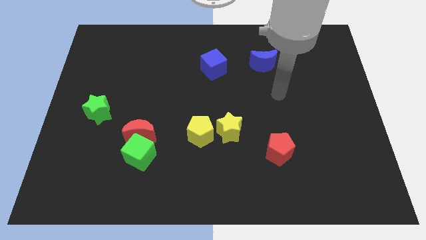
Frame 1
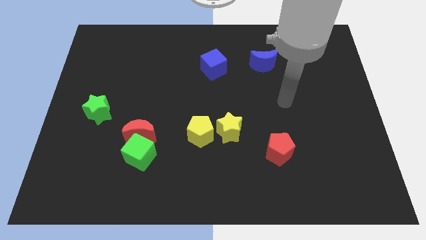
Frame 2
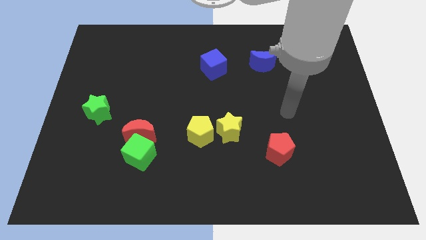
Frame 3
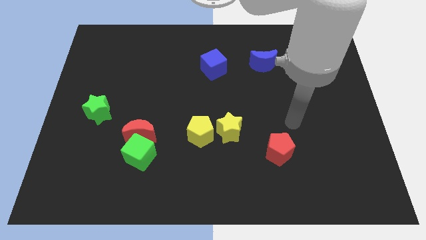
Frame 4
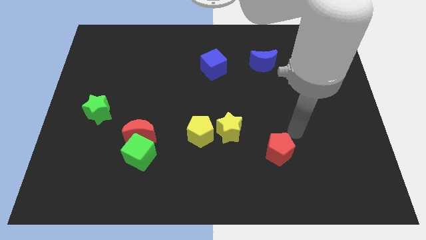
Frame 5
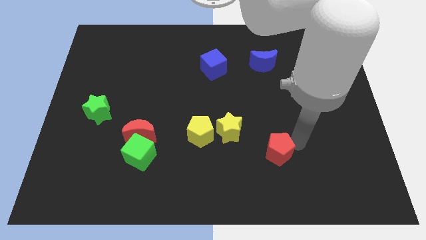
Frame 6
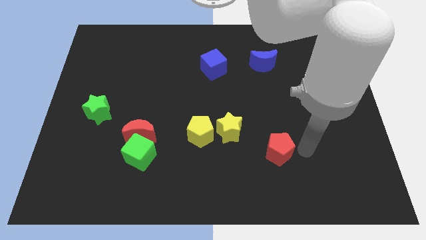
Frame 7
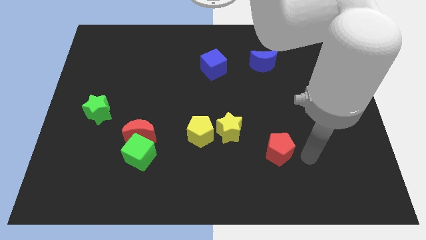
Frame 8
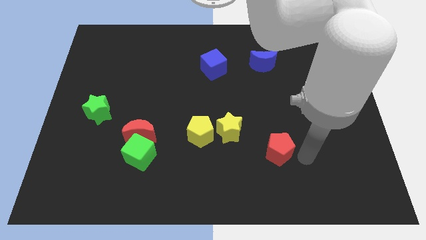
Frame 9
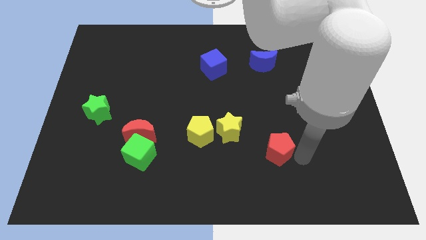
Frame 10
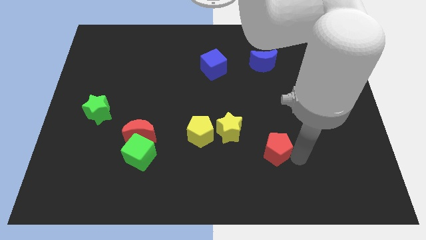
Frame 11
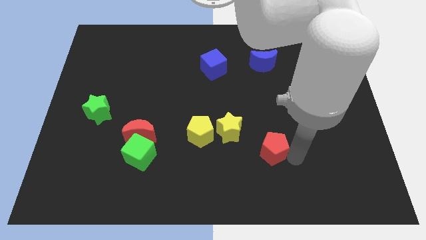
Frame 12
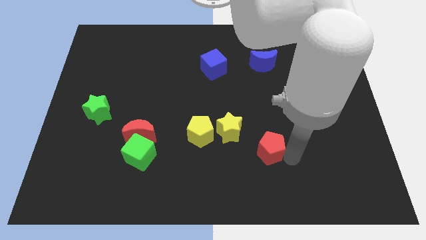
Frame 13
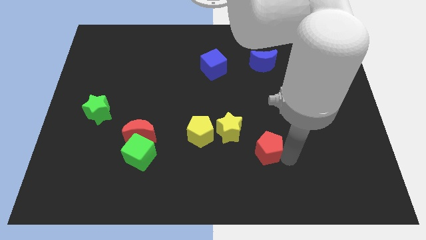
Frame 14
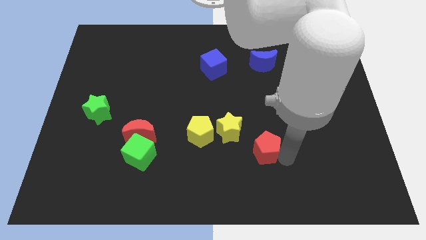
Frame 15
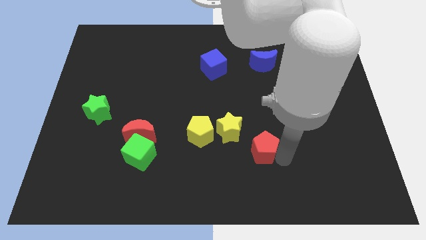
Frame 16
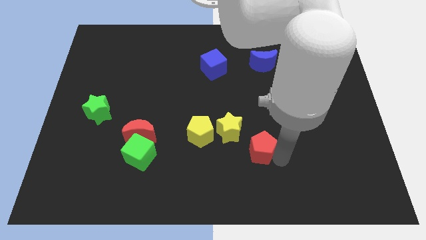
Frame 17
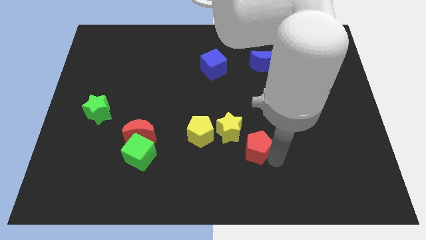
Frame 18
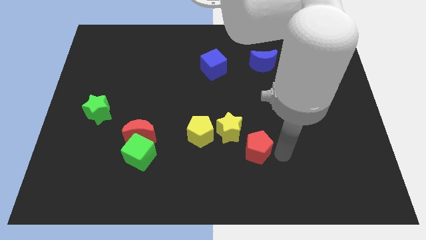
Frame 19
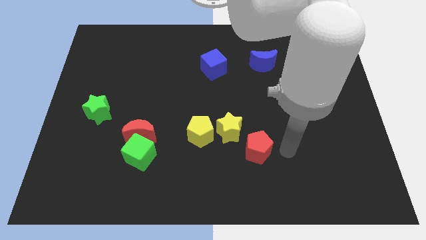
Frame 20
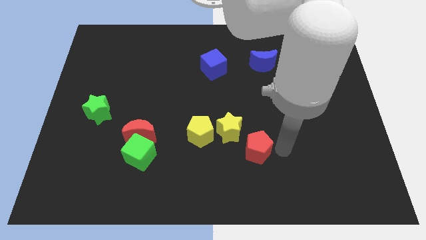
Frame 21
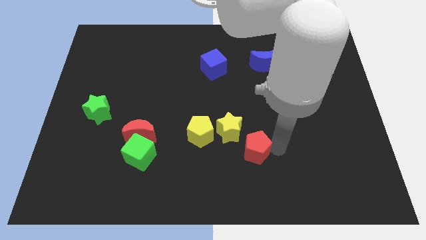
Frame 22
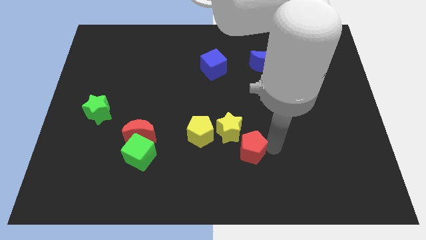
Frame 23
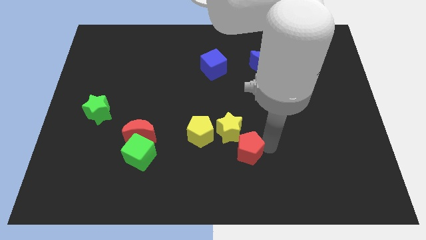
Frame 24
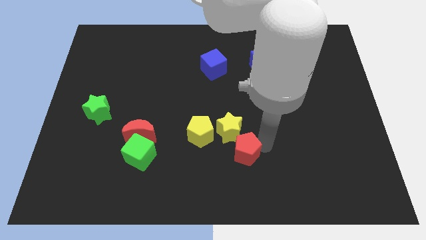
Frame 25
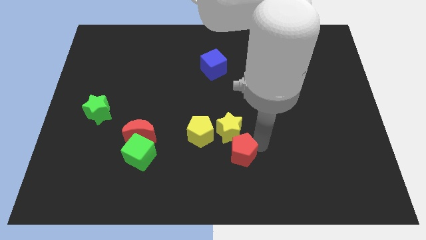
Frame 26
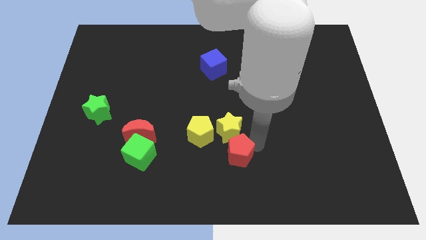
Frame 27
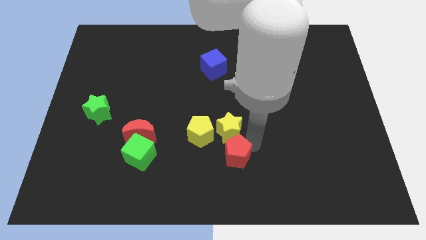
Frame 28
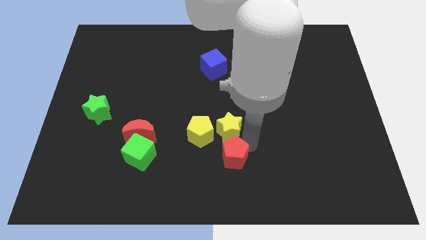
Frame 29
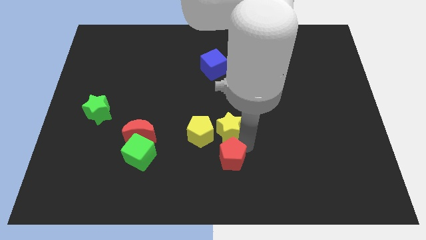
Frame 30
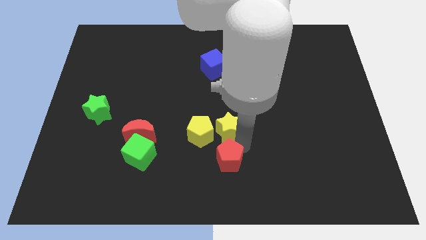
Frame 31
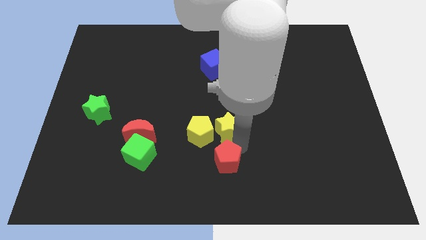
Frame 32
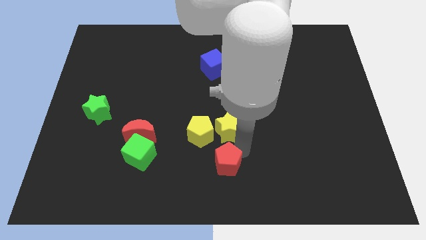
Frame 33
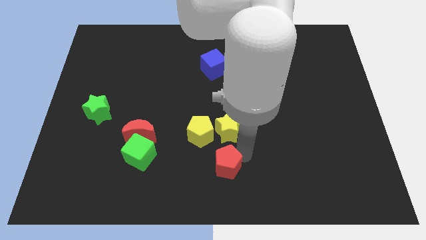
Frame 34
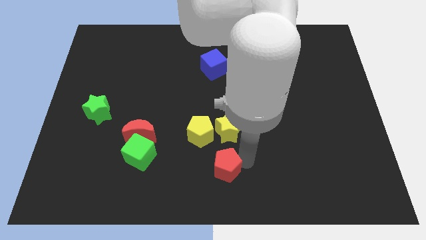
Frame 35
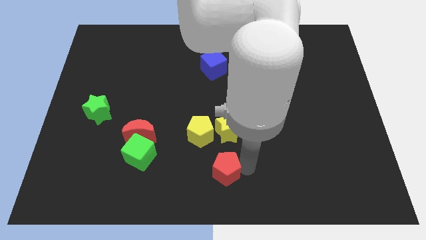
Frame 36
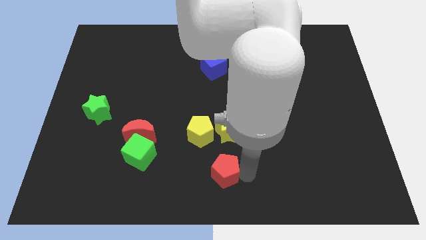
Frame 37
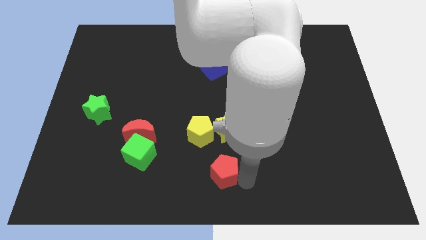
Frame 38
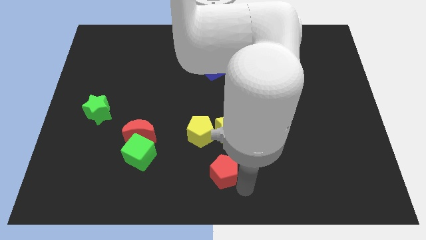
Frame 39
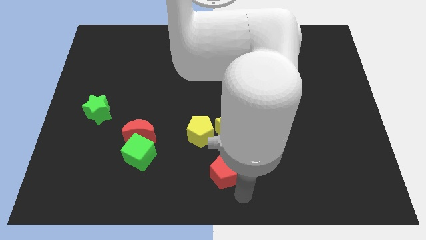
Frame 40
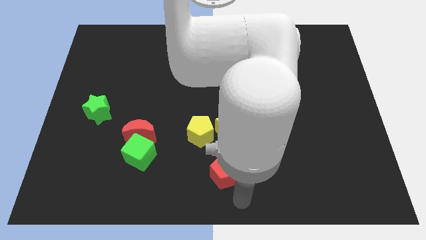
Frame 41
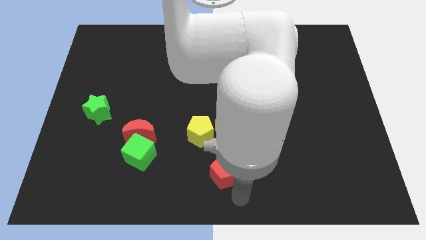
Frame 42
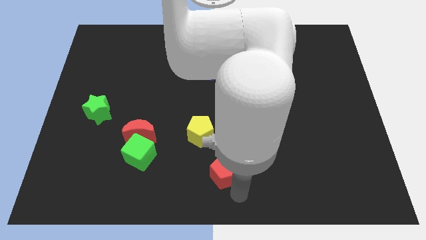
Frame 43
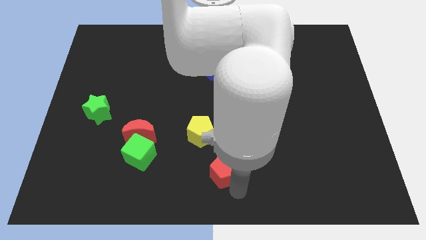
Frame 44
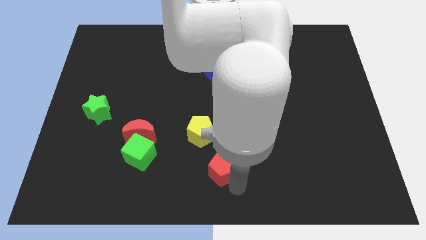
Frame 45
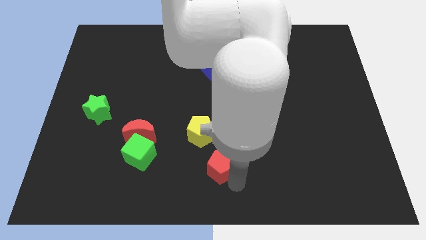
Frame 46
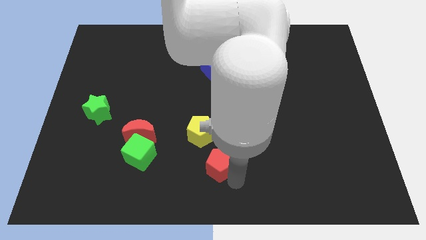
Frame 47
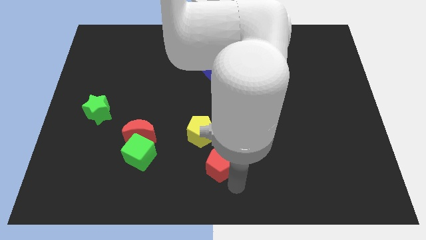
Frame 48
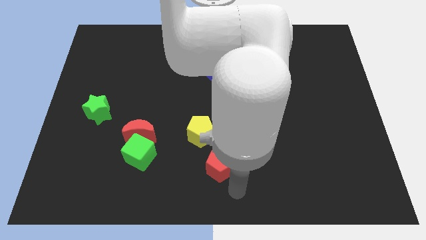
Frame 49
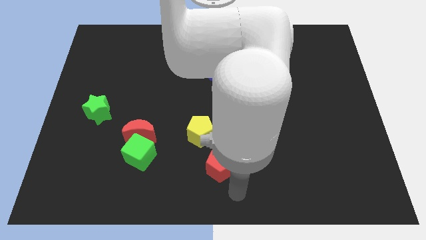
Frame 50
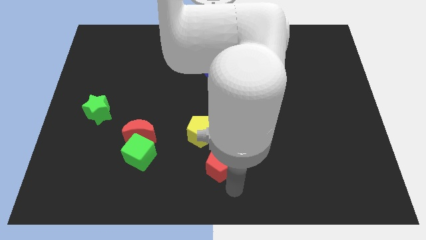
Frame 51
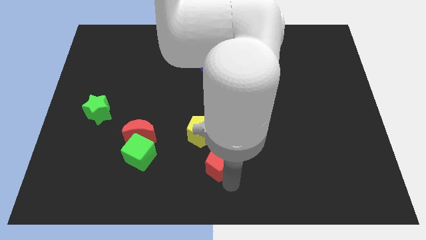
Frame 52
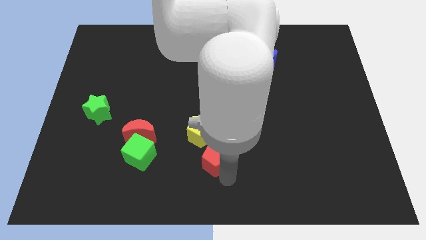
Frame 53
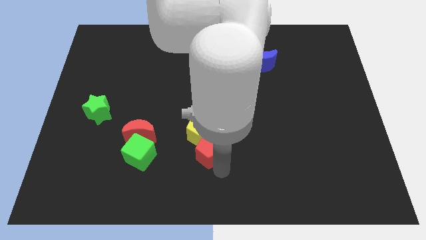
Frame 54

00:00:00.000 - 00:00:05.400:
put the red pentagon to the yellow pentagon

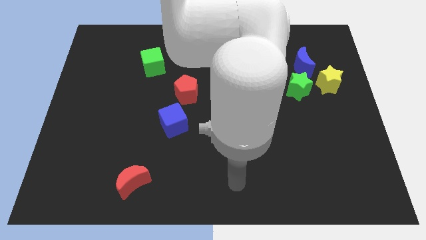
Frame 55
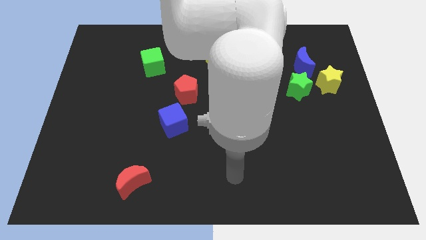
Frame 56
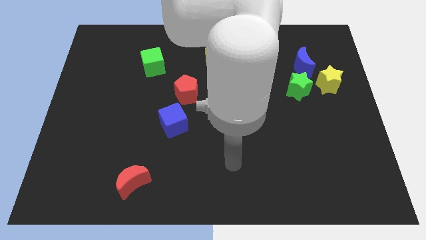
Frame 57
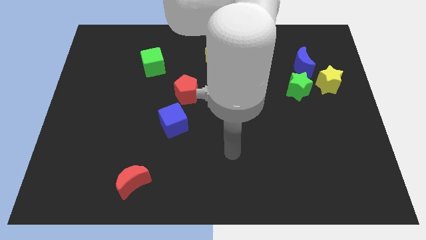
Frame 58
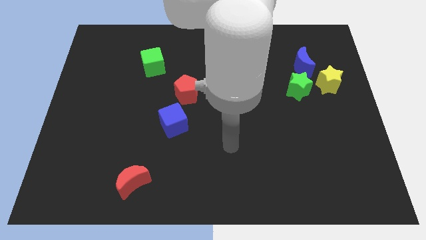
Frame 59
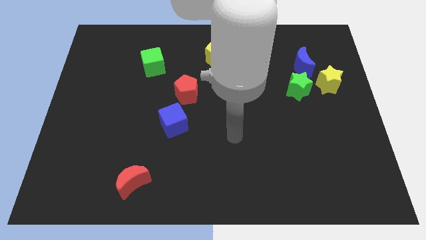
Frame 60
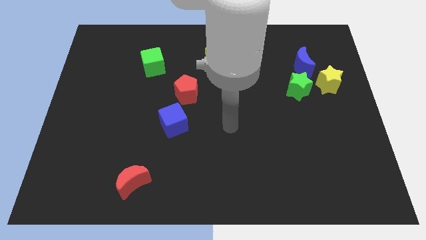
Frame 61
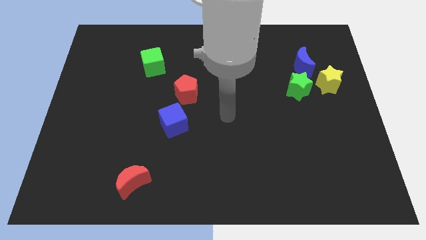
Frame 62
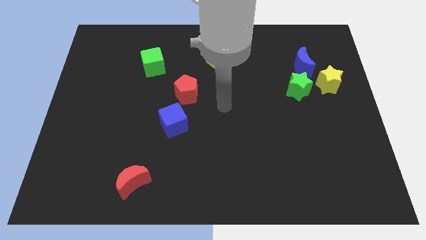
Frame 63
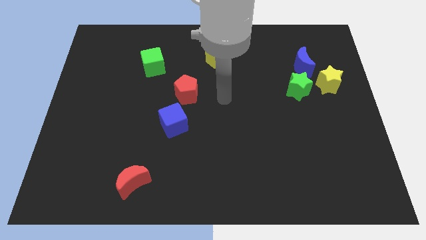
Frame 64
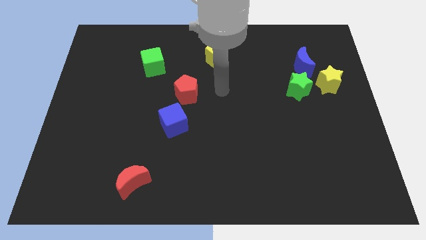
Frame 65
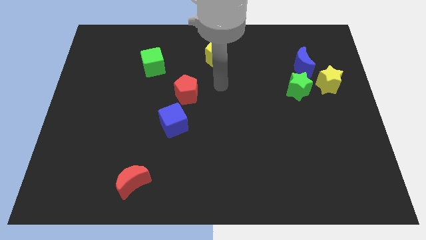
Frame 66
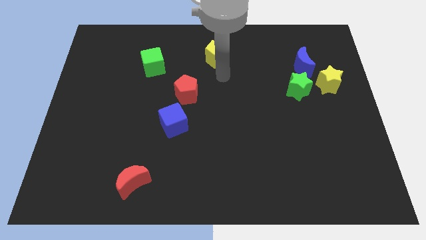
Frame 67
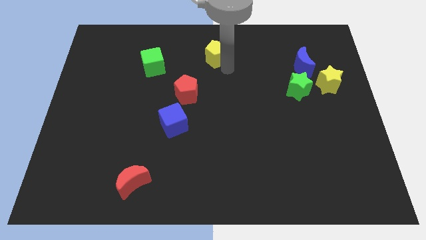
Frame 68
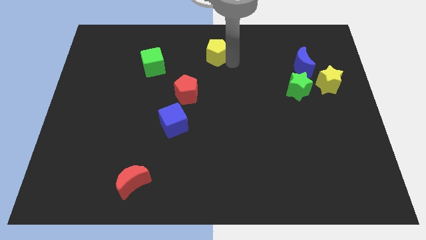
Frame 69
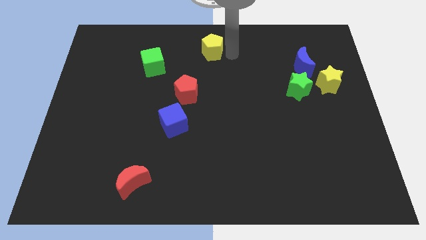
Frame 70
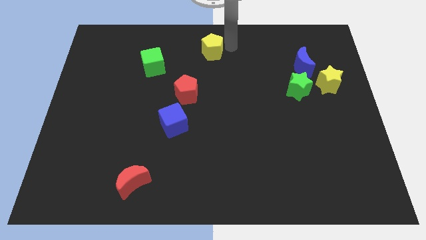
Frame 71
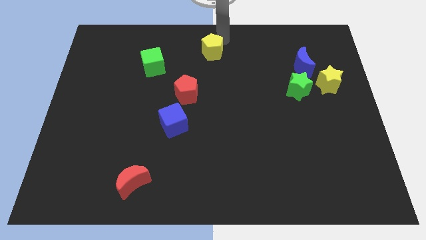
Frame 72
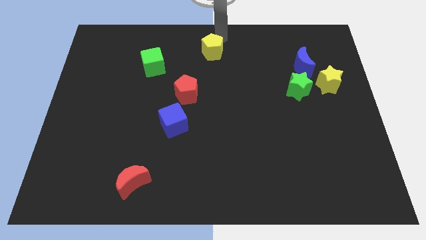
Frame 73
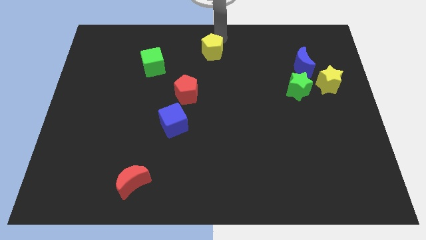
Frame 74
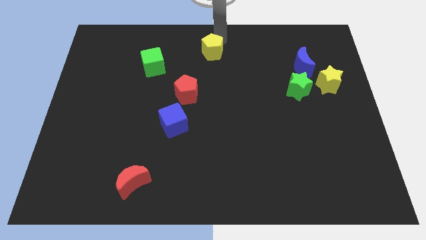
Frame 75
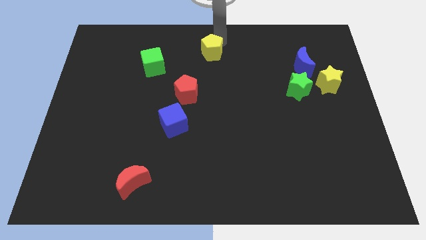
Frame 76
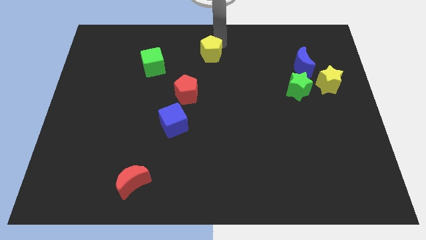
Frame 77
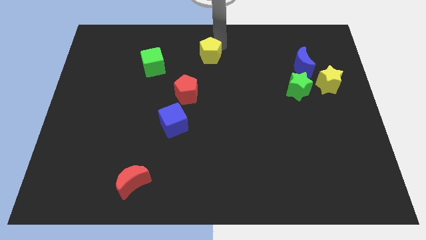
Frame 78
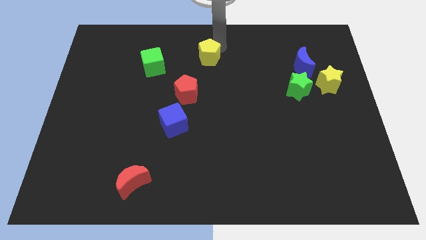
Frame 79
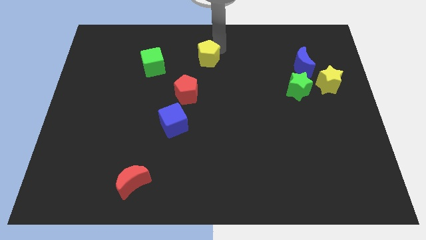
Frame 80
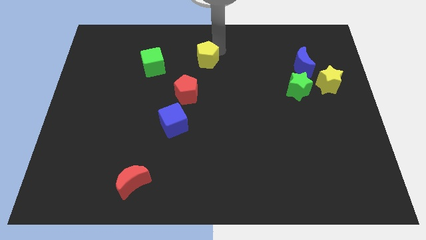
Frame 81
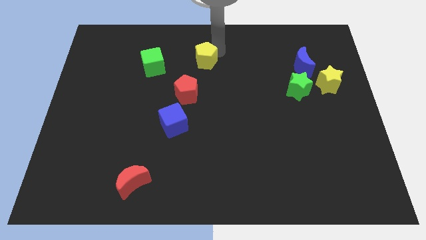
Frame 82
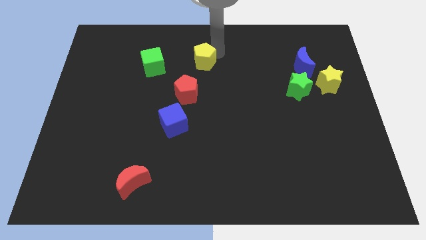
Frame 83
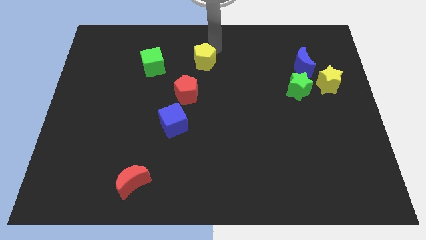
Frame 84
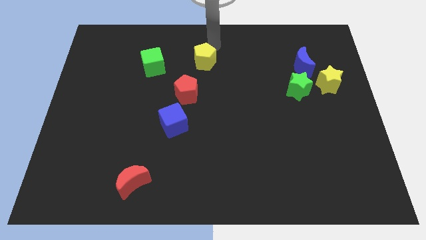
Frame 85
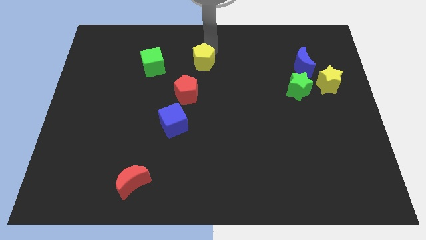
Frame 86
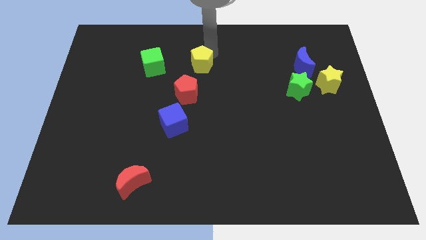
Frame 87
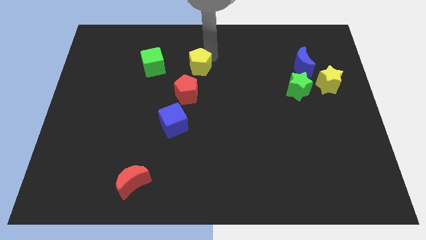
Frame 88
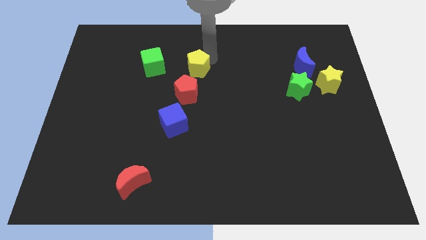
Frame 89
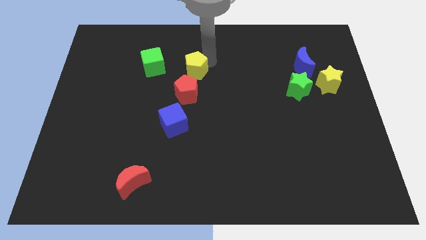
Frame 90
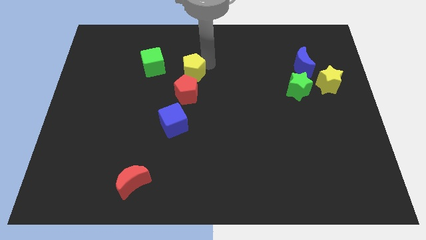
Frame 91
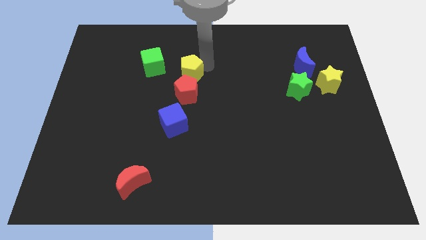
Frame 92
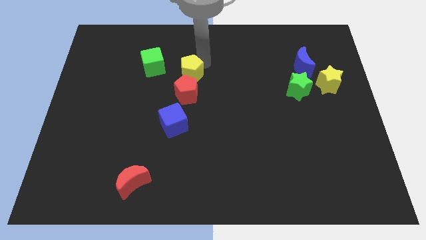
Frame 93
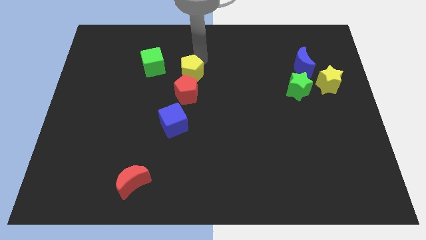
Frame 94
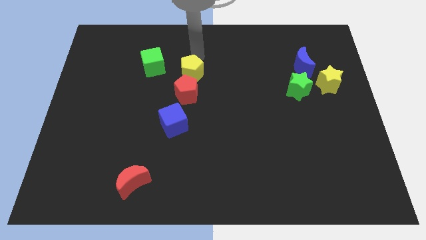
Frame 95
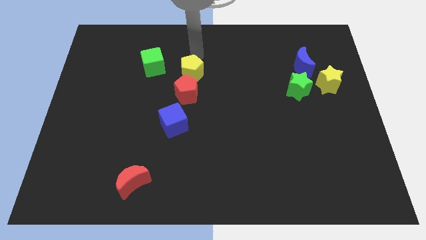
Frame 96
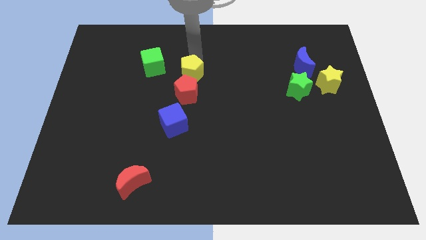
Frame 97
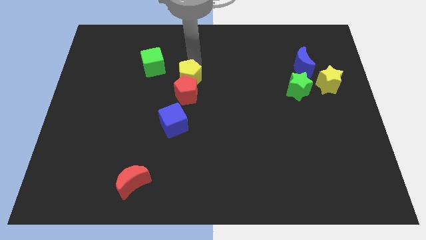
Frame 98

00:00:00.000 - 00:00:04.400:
move the yellow pentagon next to the red pentagon
